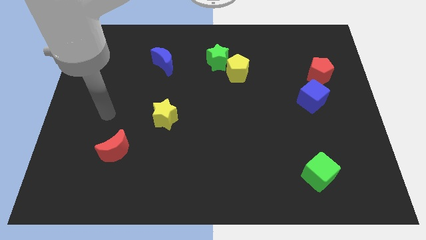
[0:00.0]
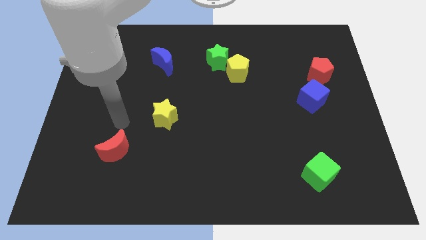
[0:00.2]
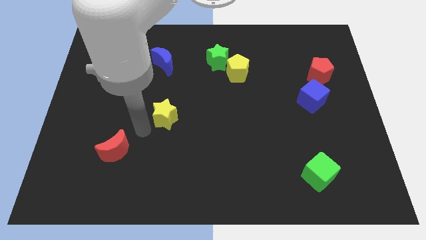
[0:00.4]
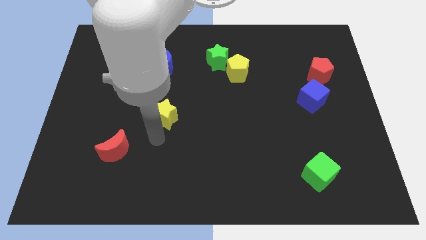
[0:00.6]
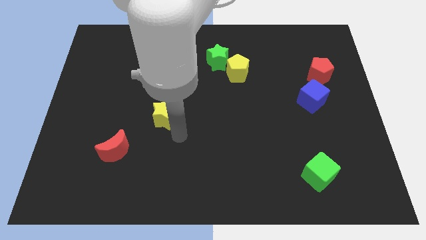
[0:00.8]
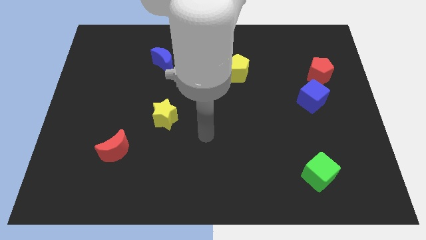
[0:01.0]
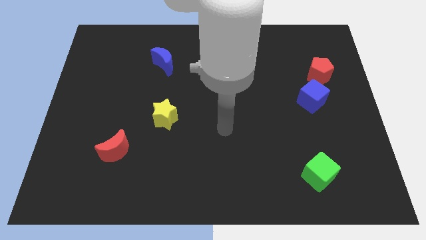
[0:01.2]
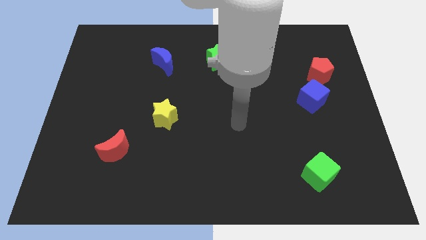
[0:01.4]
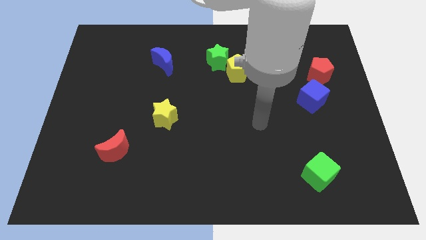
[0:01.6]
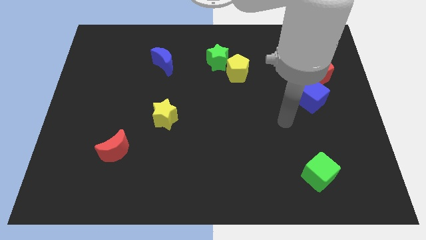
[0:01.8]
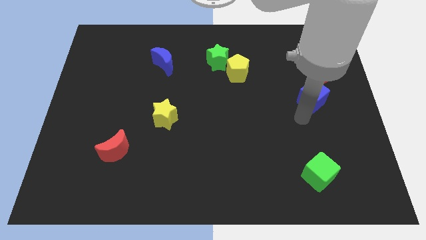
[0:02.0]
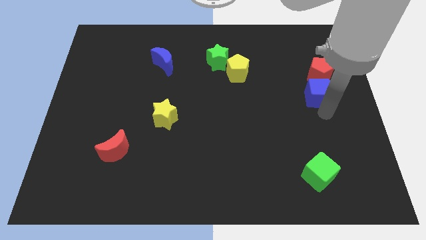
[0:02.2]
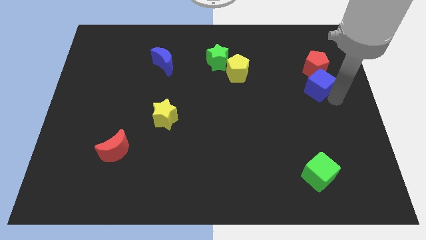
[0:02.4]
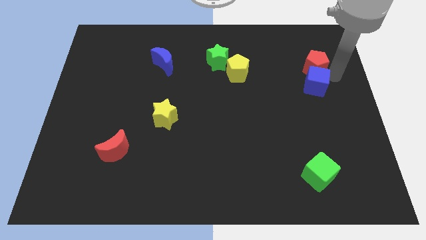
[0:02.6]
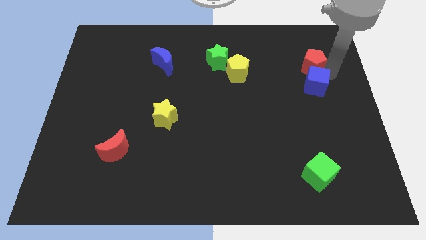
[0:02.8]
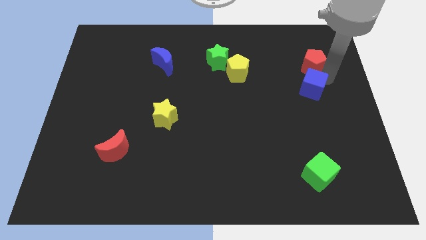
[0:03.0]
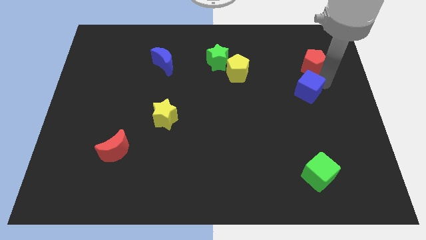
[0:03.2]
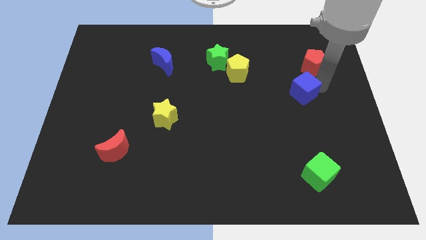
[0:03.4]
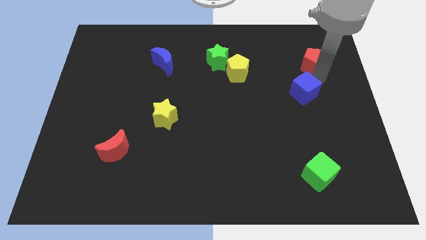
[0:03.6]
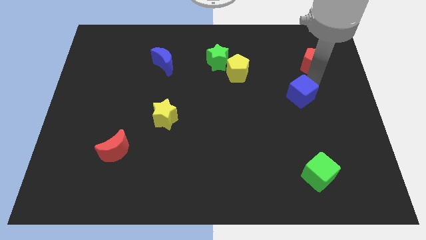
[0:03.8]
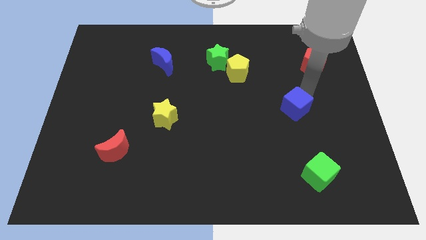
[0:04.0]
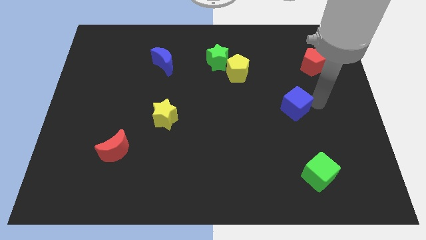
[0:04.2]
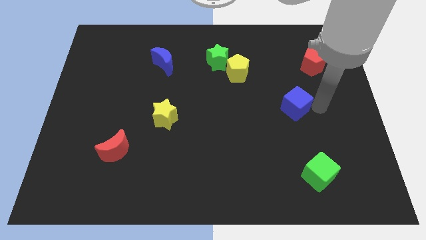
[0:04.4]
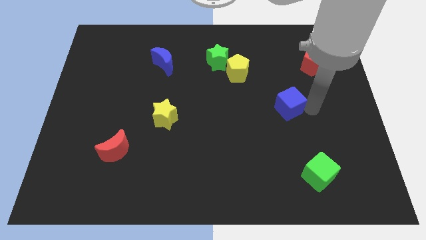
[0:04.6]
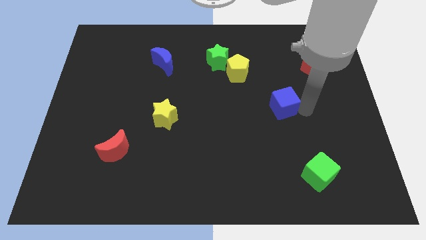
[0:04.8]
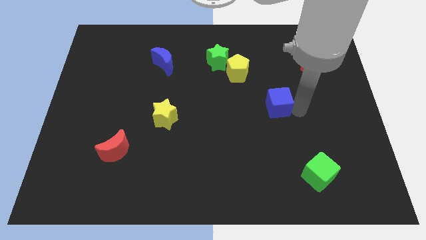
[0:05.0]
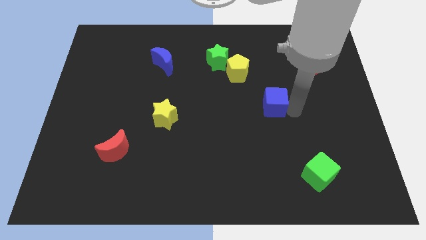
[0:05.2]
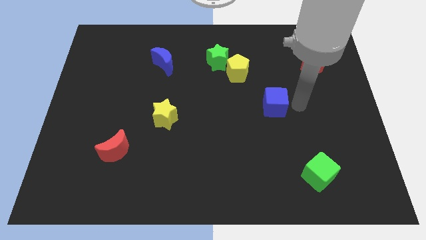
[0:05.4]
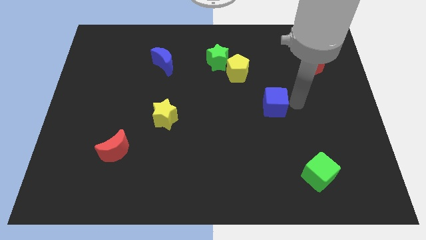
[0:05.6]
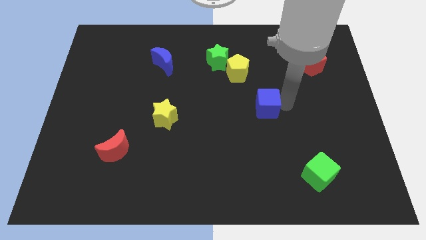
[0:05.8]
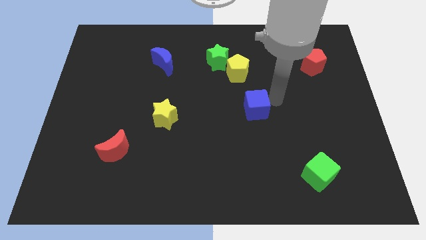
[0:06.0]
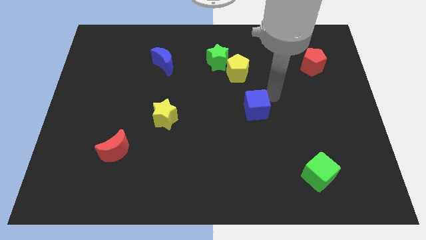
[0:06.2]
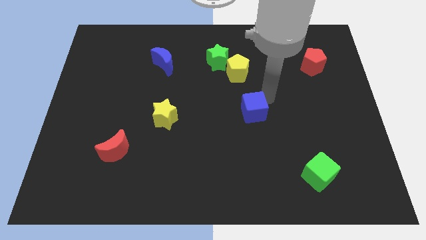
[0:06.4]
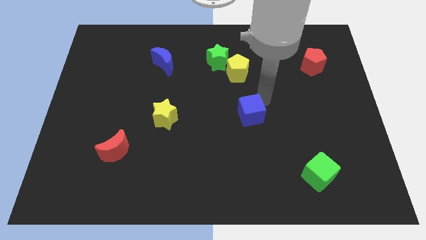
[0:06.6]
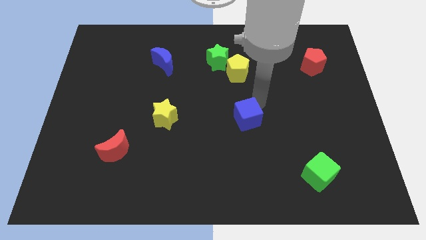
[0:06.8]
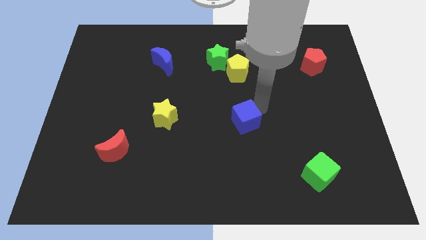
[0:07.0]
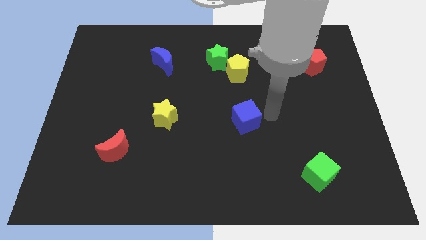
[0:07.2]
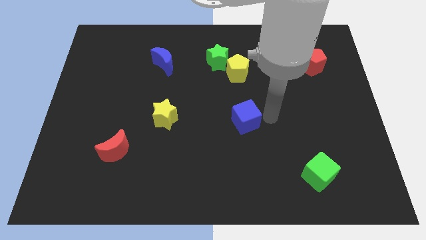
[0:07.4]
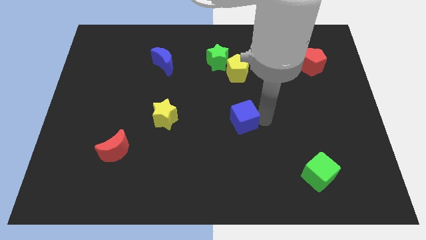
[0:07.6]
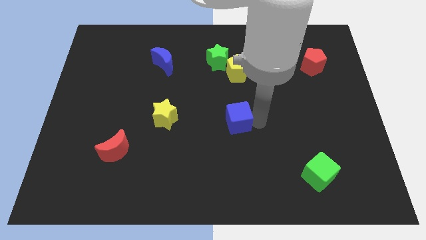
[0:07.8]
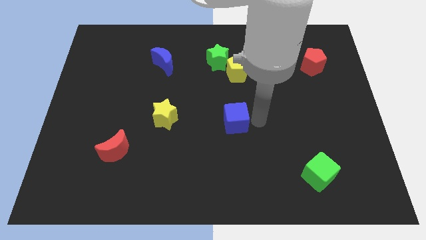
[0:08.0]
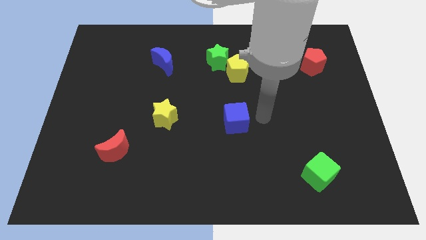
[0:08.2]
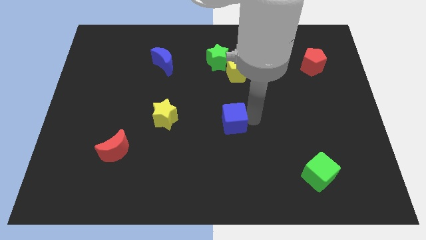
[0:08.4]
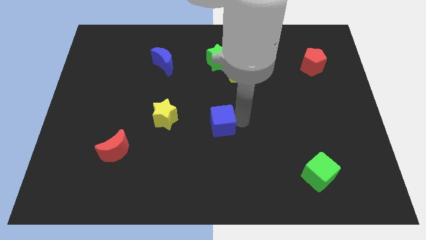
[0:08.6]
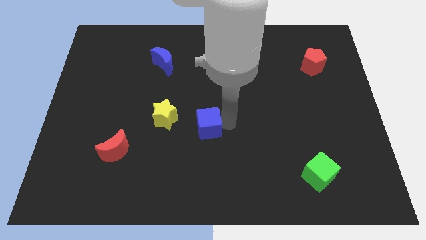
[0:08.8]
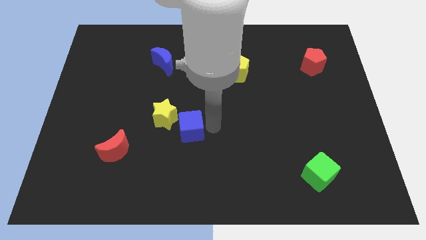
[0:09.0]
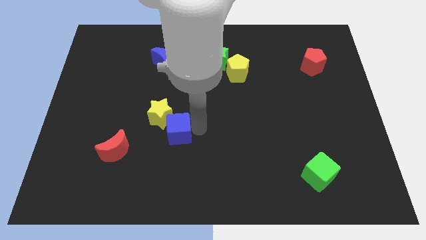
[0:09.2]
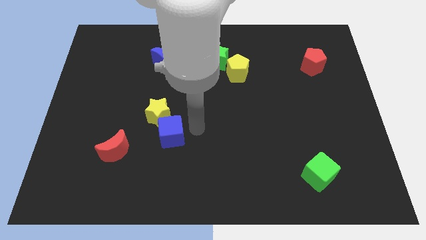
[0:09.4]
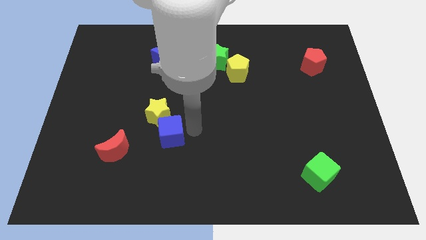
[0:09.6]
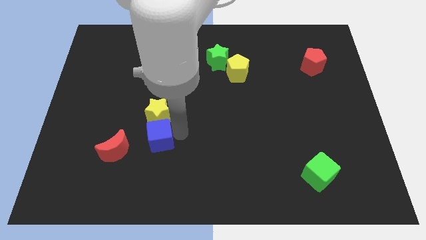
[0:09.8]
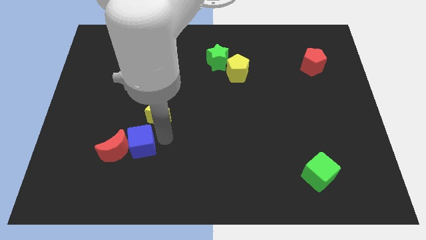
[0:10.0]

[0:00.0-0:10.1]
move the blue cube towards the red moon

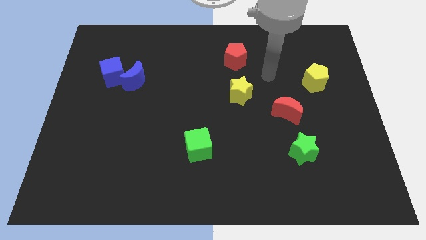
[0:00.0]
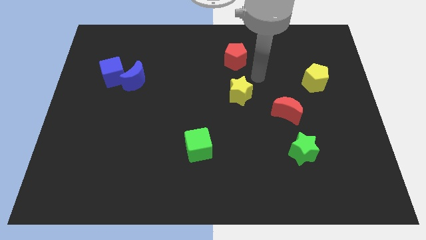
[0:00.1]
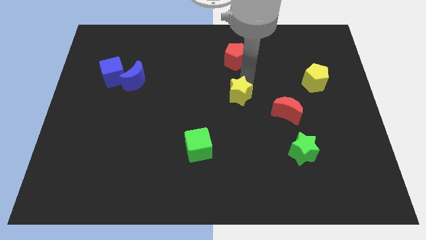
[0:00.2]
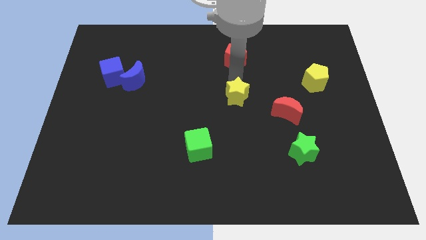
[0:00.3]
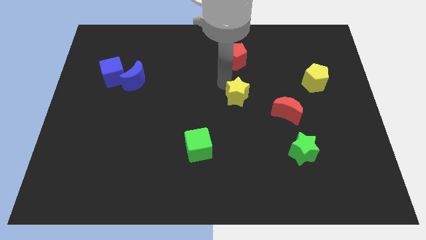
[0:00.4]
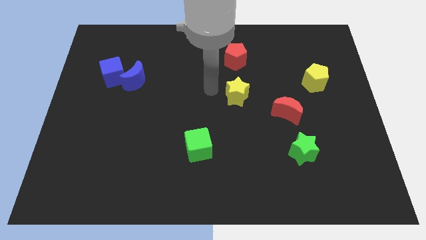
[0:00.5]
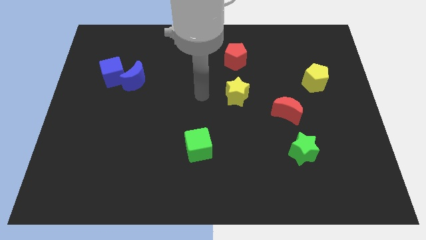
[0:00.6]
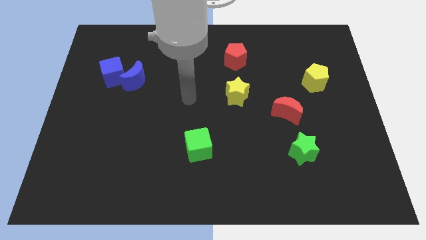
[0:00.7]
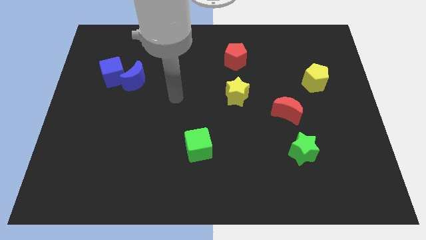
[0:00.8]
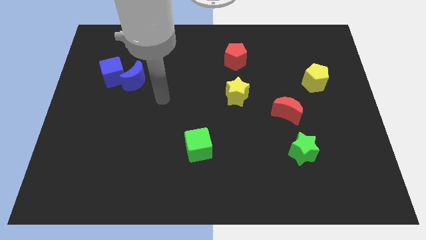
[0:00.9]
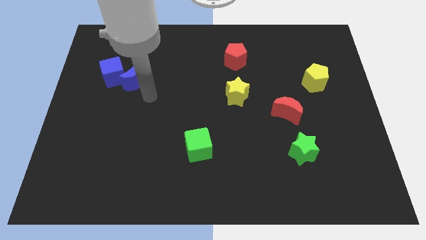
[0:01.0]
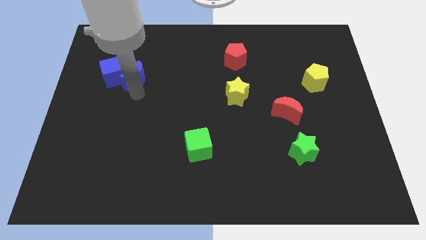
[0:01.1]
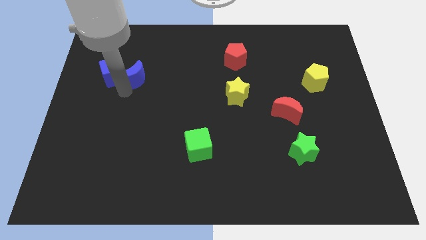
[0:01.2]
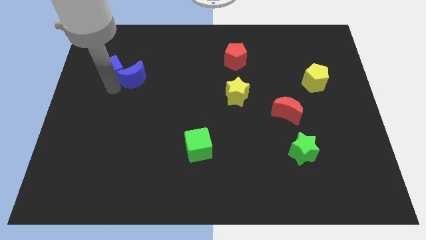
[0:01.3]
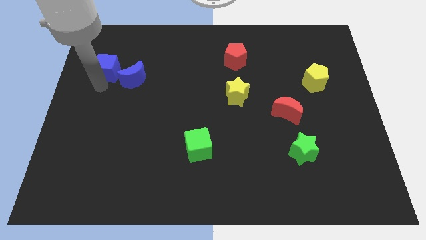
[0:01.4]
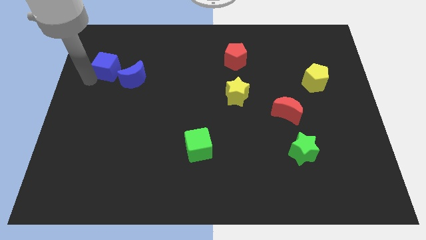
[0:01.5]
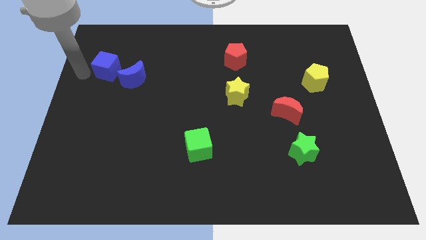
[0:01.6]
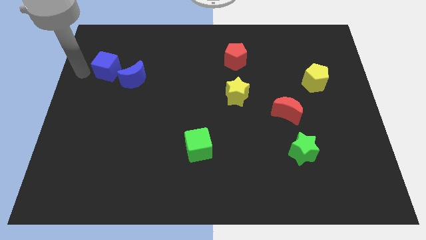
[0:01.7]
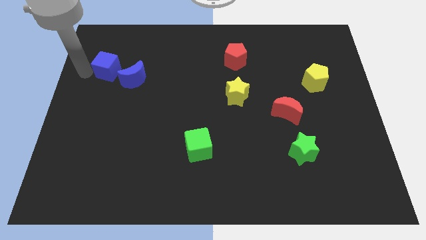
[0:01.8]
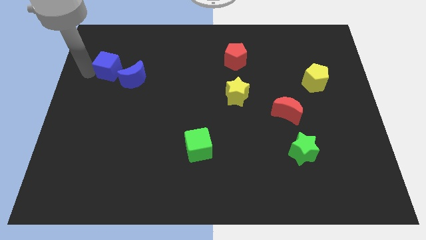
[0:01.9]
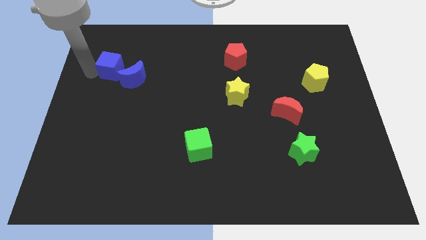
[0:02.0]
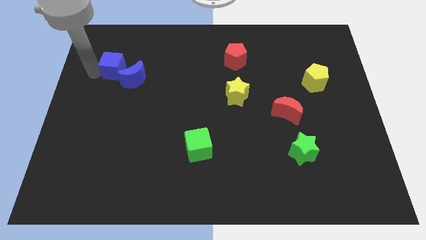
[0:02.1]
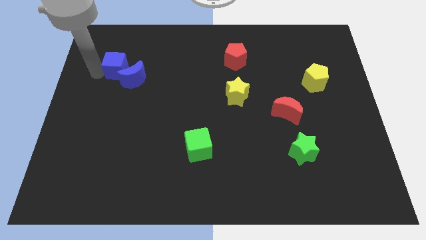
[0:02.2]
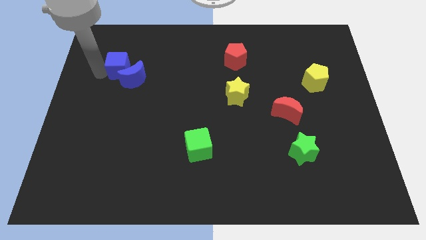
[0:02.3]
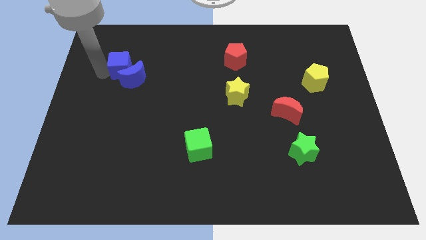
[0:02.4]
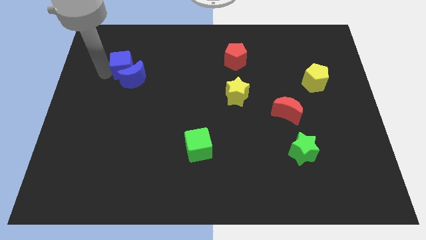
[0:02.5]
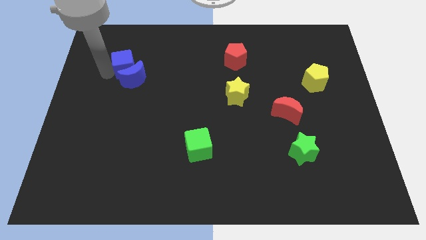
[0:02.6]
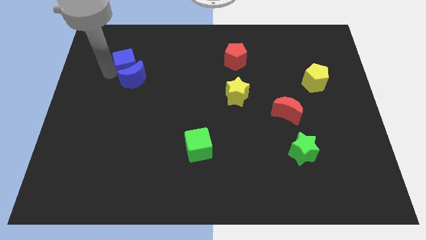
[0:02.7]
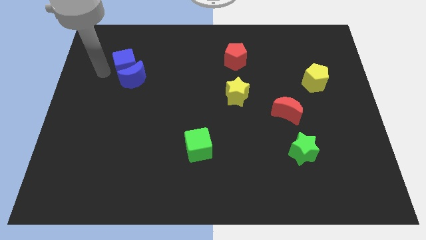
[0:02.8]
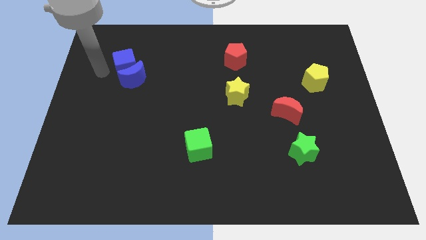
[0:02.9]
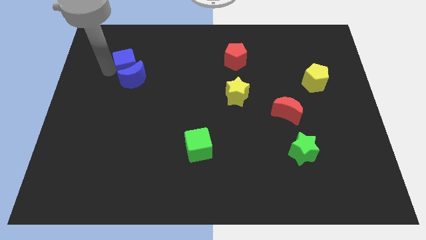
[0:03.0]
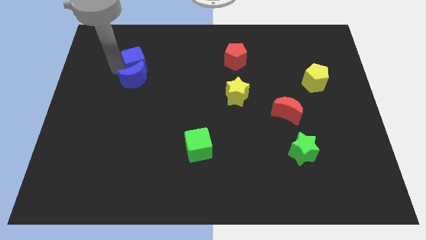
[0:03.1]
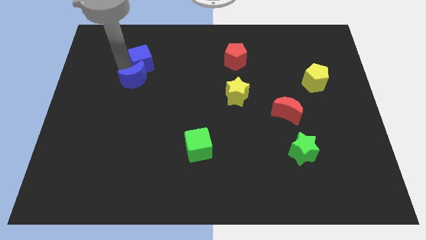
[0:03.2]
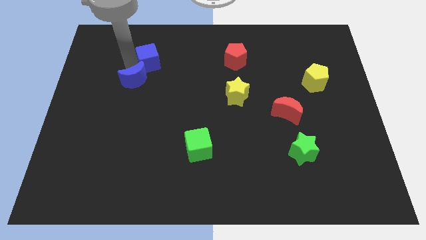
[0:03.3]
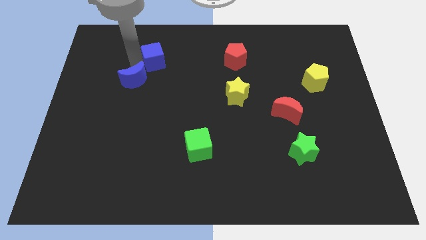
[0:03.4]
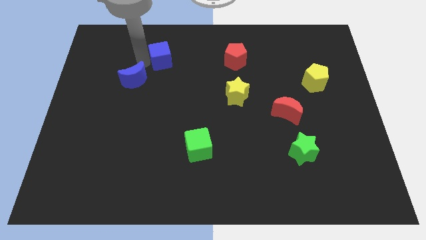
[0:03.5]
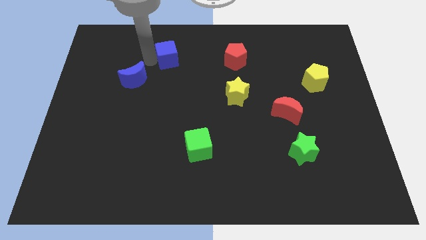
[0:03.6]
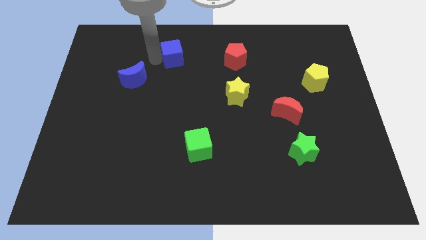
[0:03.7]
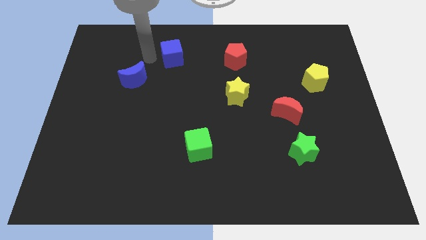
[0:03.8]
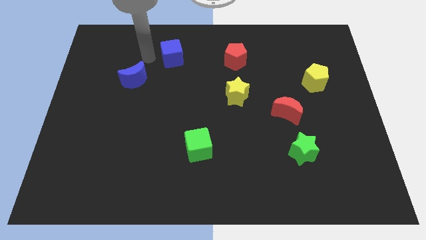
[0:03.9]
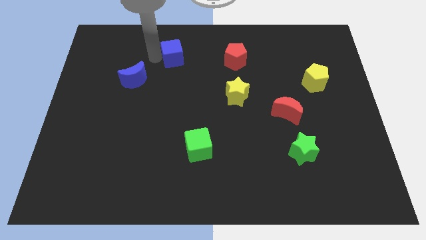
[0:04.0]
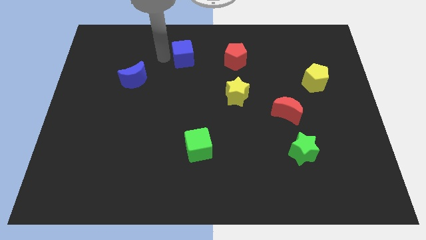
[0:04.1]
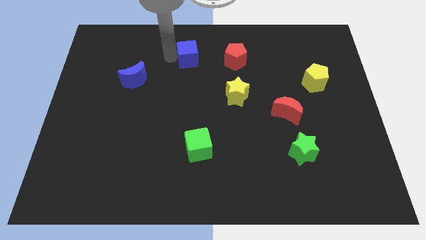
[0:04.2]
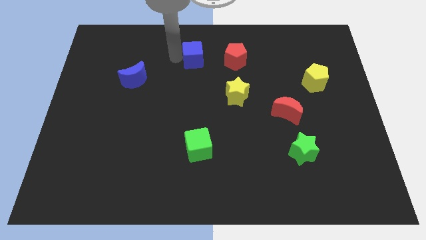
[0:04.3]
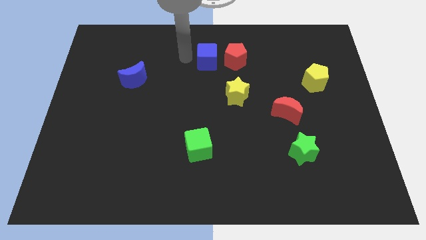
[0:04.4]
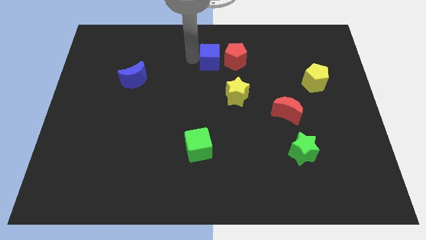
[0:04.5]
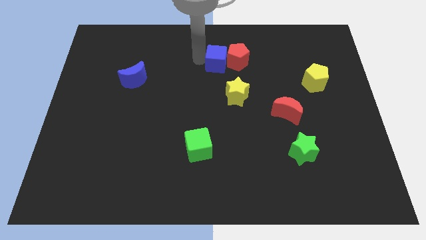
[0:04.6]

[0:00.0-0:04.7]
push the blue cube next to the red pentagon
